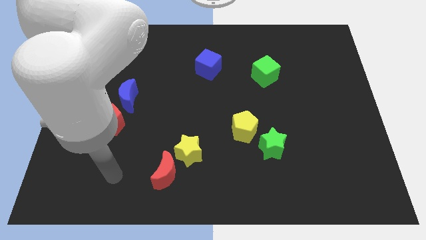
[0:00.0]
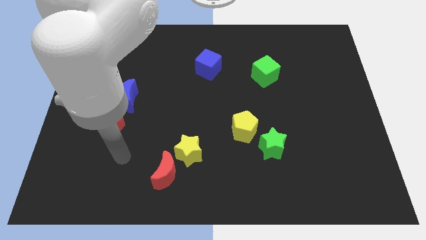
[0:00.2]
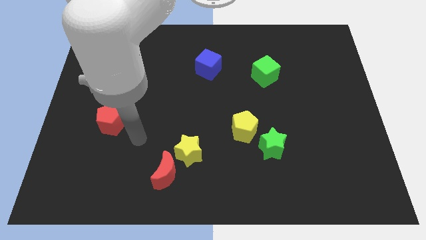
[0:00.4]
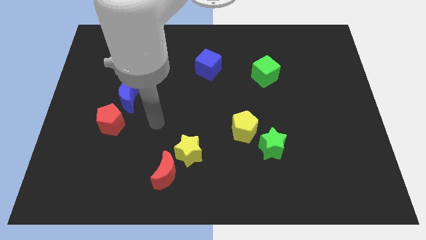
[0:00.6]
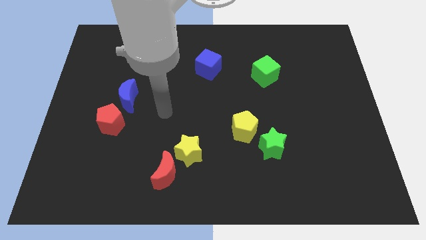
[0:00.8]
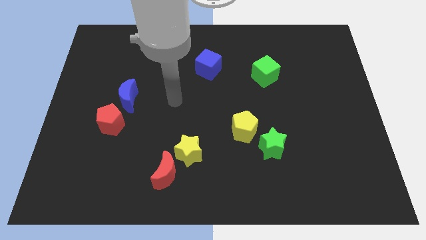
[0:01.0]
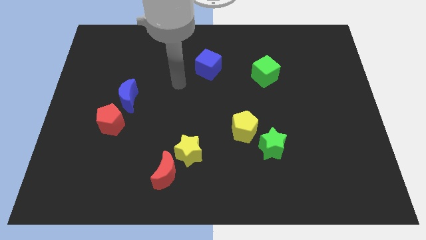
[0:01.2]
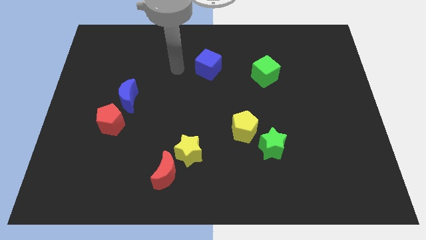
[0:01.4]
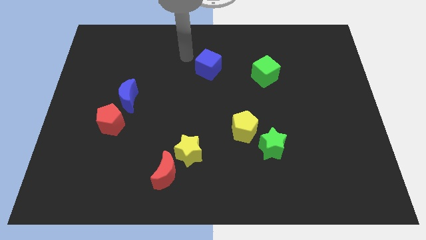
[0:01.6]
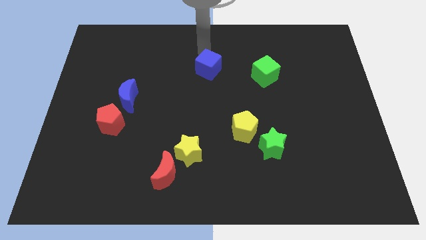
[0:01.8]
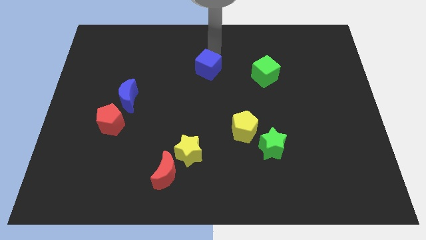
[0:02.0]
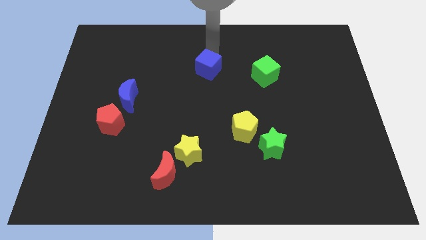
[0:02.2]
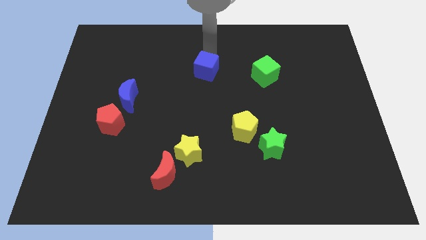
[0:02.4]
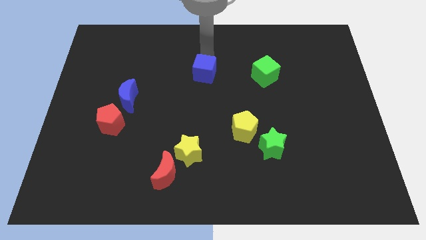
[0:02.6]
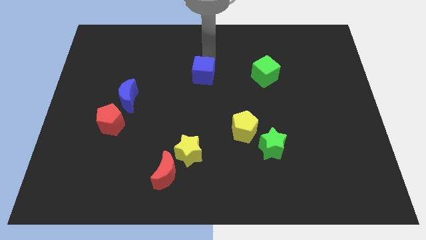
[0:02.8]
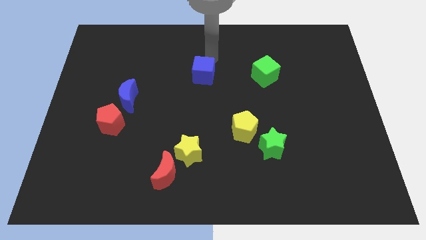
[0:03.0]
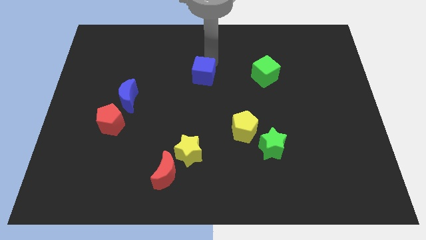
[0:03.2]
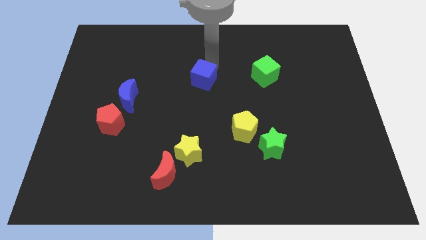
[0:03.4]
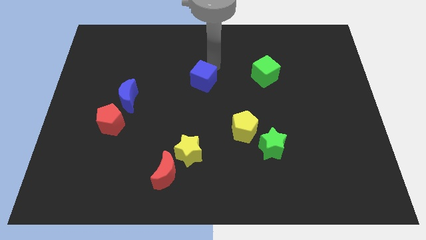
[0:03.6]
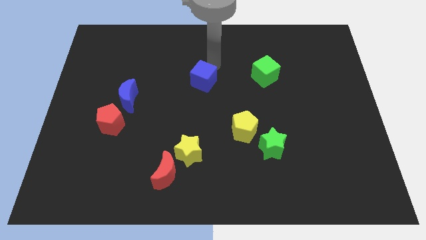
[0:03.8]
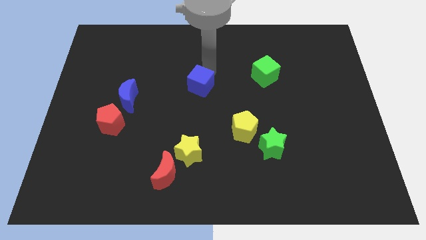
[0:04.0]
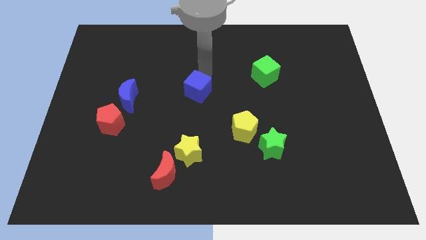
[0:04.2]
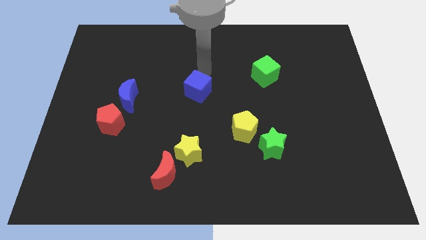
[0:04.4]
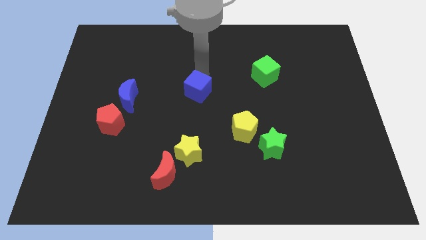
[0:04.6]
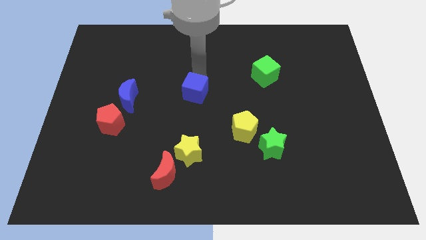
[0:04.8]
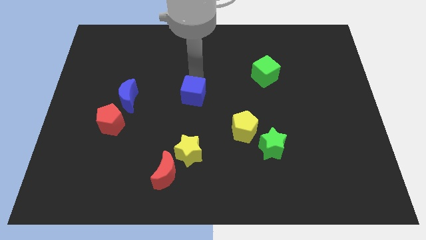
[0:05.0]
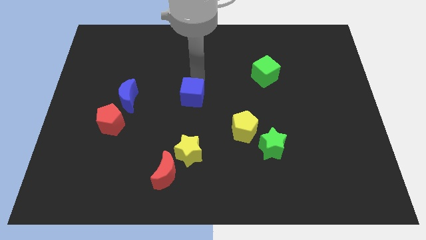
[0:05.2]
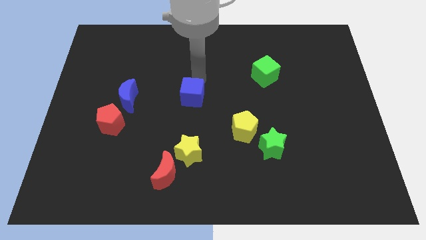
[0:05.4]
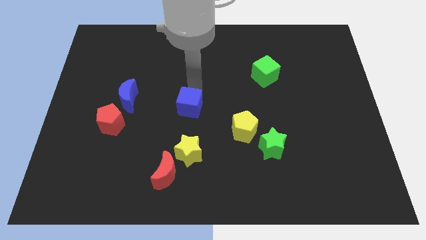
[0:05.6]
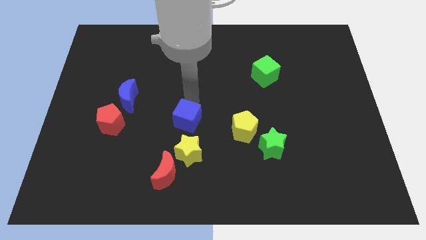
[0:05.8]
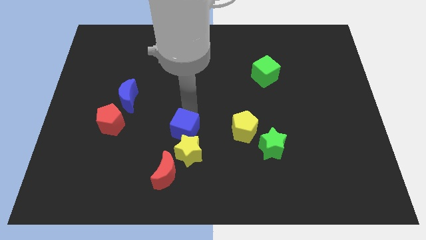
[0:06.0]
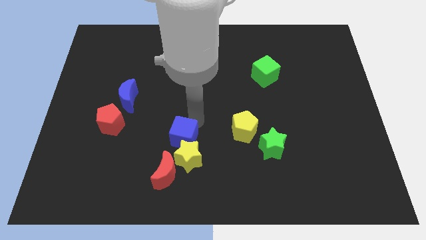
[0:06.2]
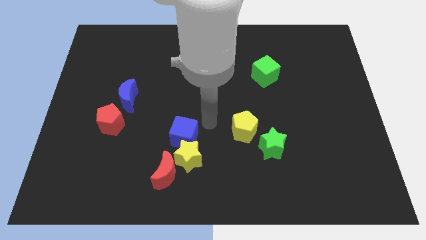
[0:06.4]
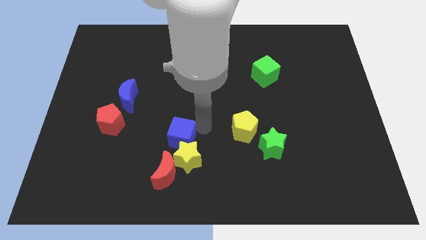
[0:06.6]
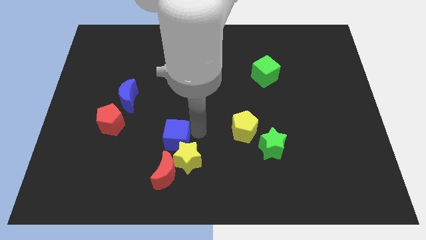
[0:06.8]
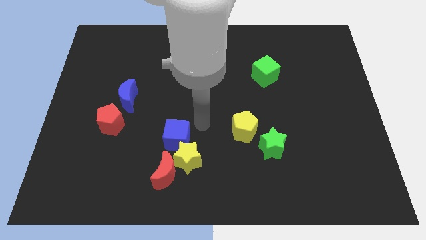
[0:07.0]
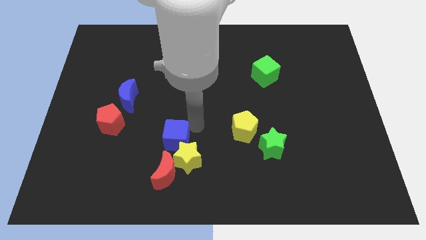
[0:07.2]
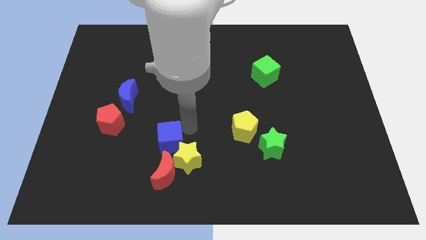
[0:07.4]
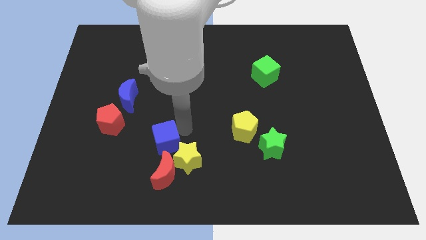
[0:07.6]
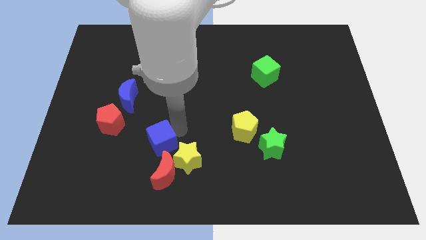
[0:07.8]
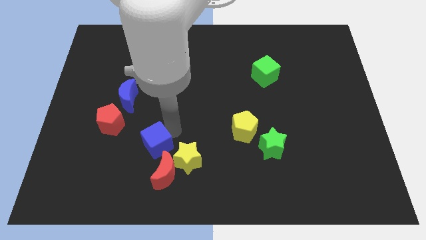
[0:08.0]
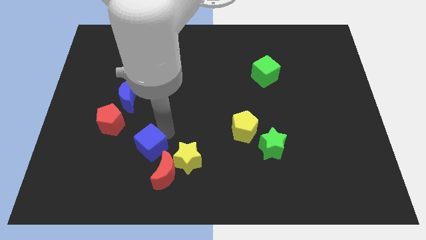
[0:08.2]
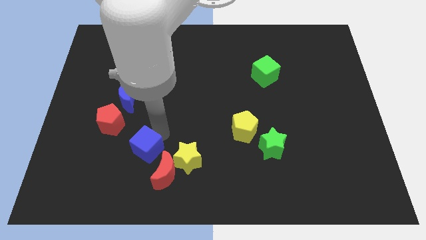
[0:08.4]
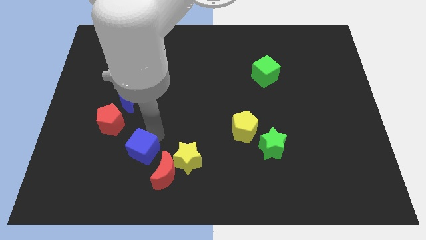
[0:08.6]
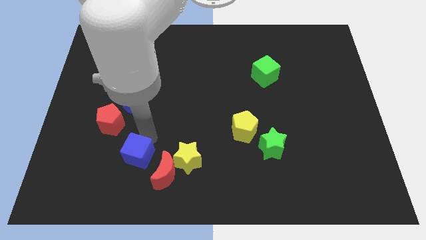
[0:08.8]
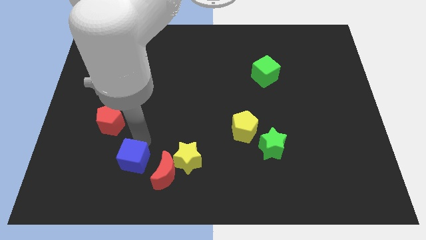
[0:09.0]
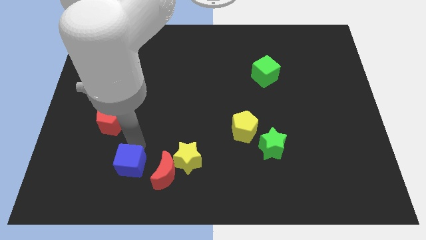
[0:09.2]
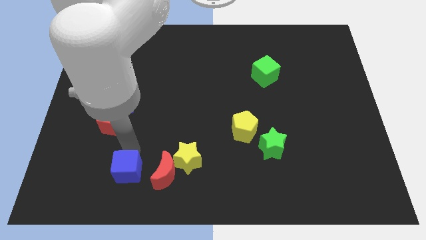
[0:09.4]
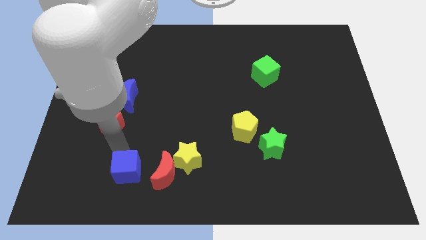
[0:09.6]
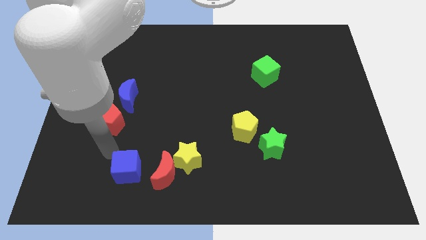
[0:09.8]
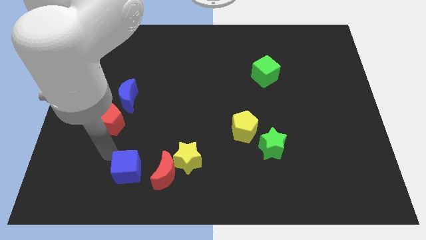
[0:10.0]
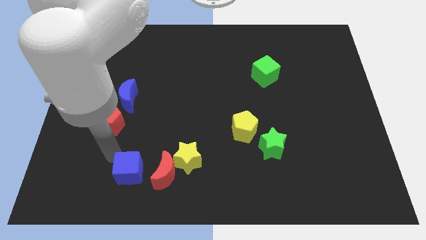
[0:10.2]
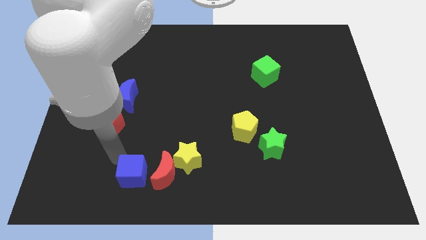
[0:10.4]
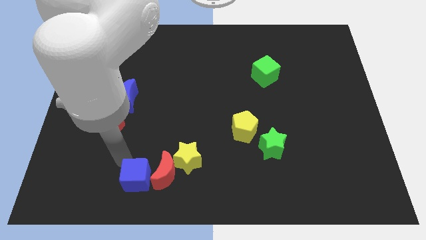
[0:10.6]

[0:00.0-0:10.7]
slide the blue cube diagonally down and to the left of the yellow star

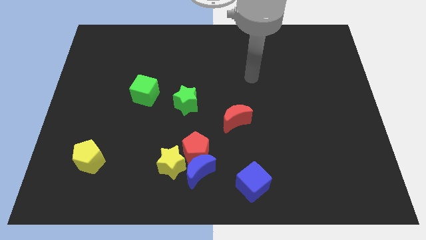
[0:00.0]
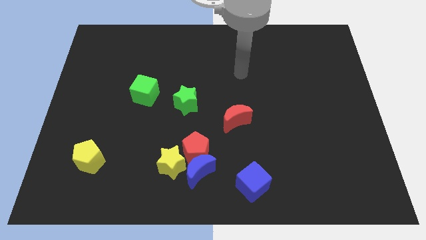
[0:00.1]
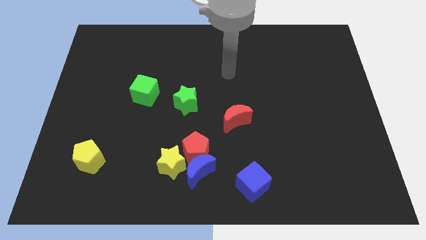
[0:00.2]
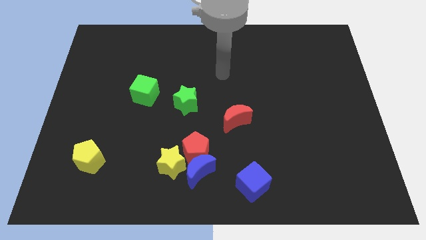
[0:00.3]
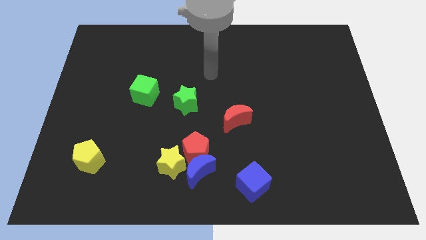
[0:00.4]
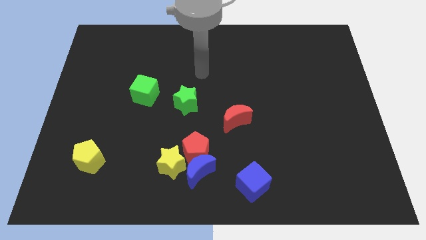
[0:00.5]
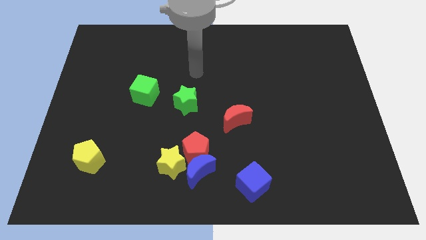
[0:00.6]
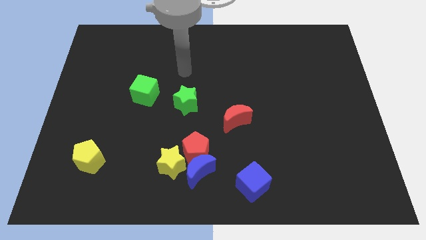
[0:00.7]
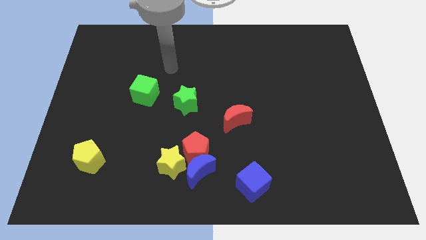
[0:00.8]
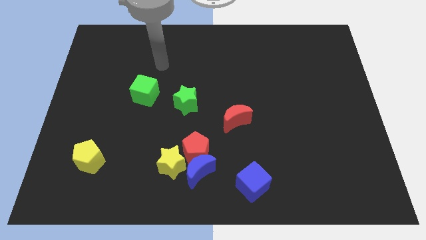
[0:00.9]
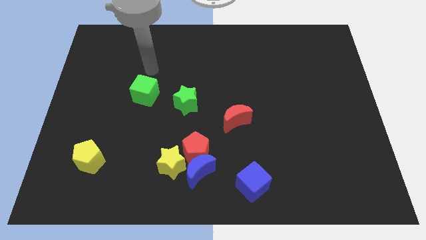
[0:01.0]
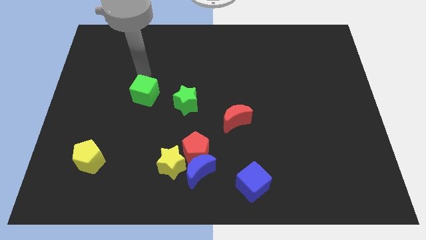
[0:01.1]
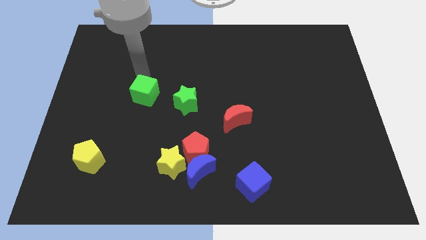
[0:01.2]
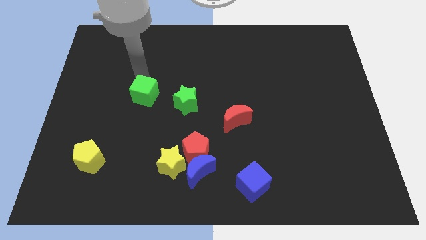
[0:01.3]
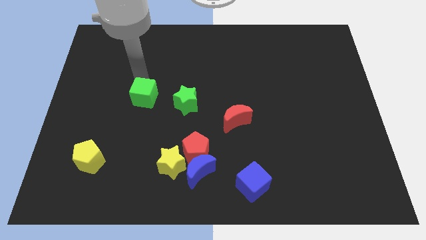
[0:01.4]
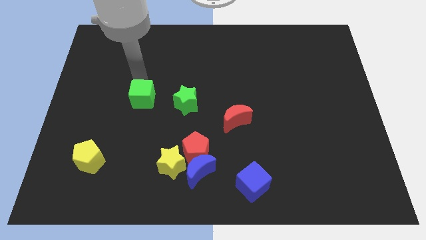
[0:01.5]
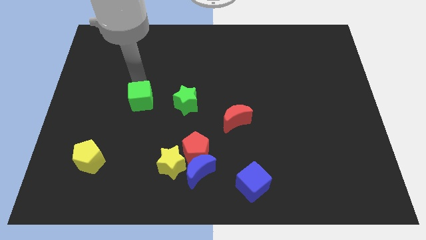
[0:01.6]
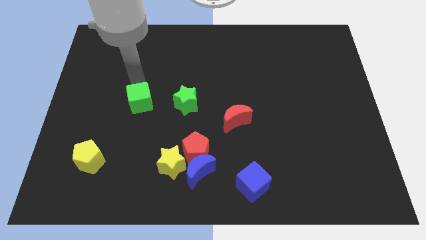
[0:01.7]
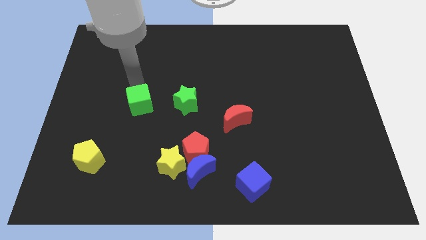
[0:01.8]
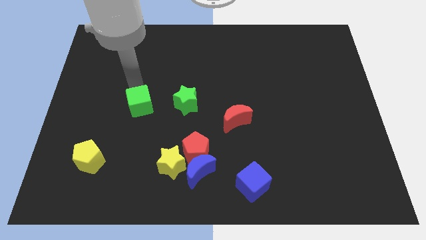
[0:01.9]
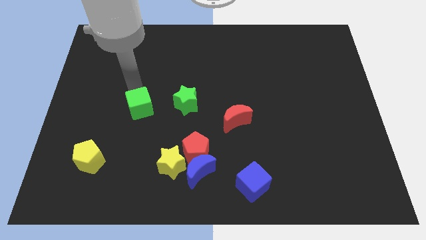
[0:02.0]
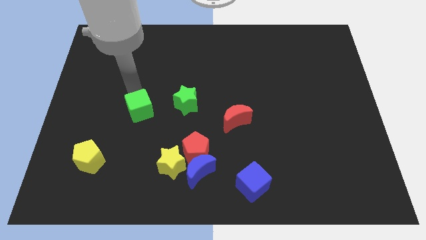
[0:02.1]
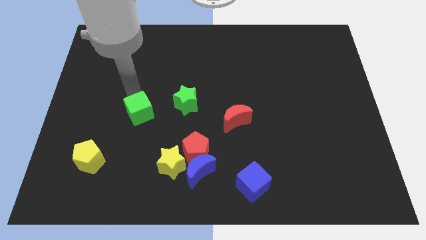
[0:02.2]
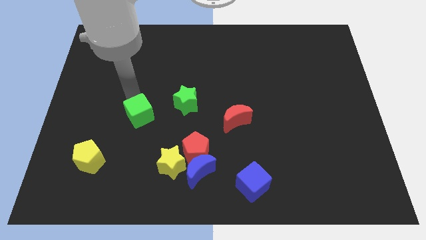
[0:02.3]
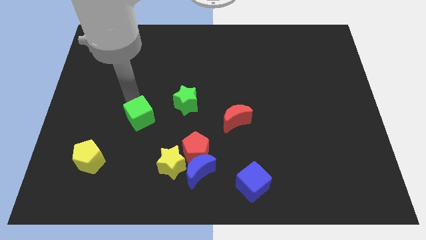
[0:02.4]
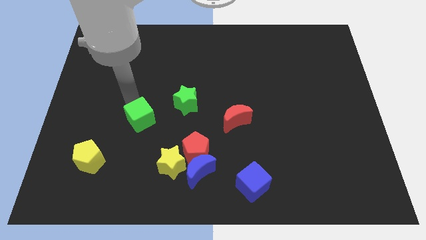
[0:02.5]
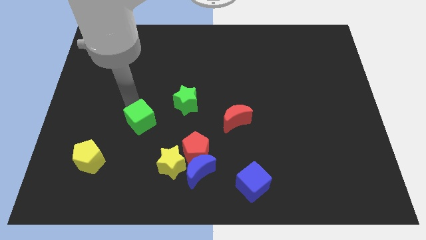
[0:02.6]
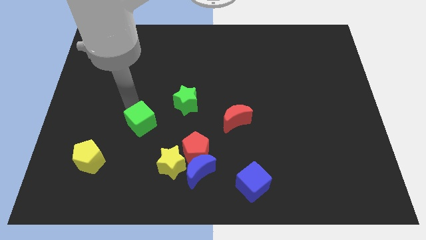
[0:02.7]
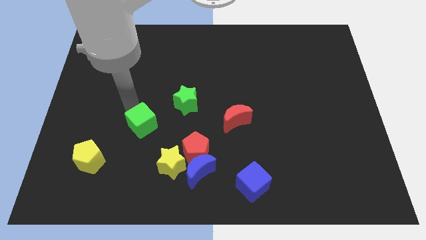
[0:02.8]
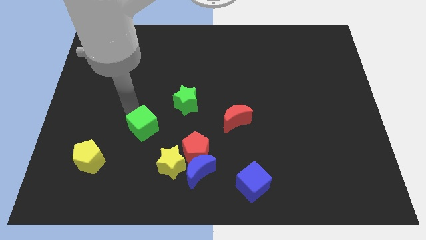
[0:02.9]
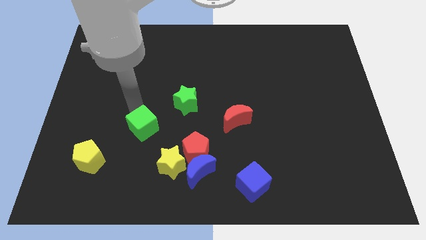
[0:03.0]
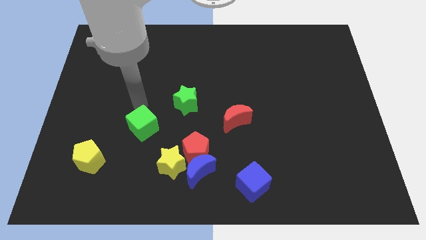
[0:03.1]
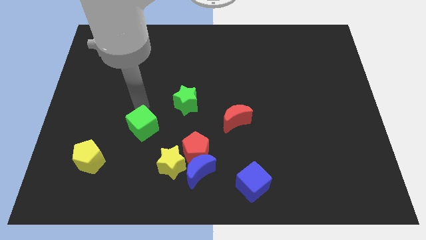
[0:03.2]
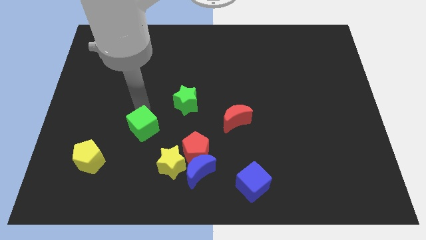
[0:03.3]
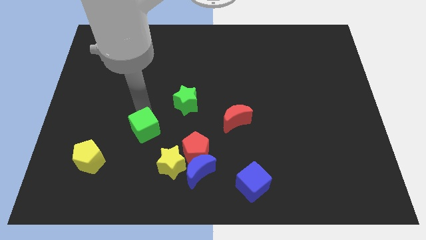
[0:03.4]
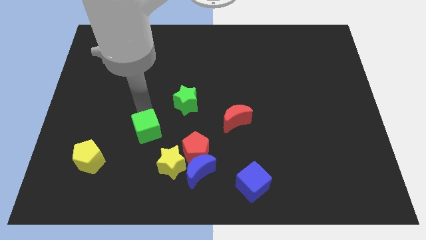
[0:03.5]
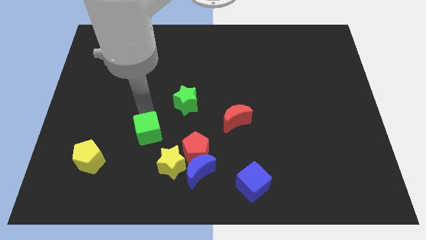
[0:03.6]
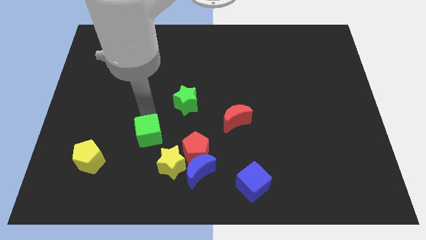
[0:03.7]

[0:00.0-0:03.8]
slide the green cube just left of the red pentagon
